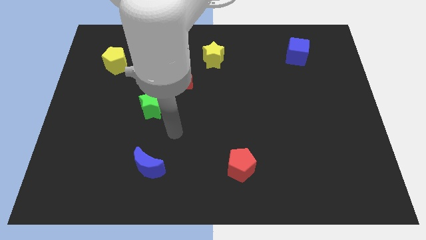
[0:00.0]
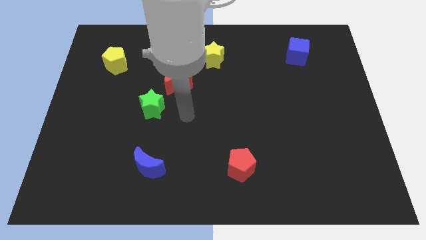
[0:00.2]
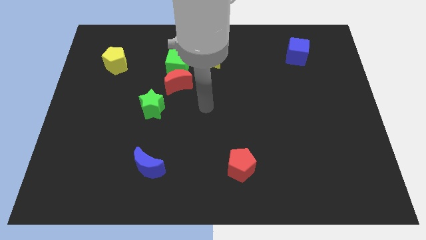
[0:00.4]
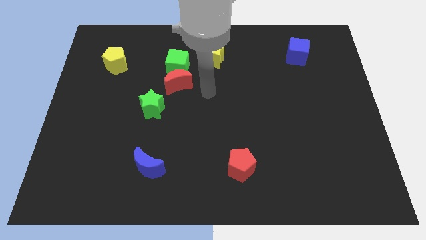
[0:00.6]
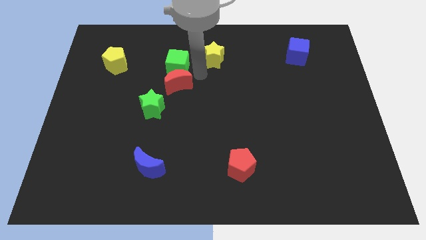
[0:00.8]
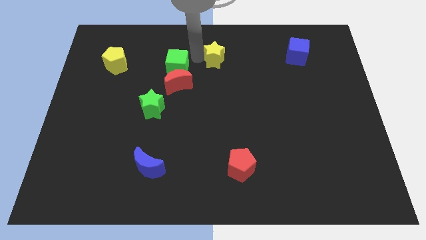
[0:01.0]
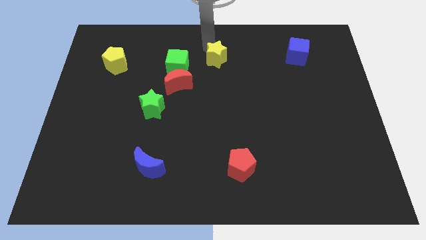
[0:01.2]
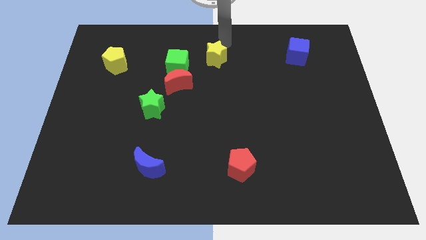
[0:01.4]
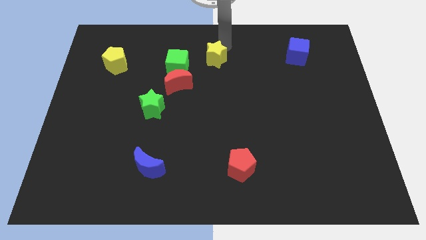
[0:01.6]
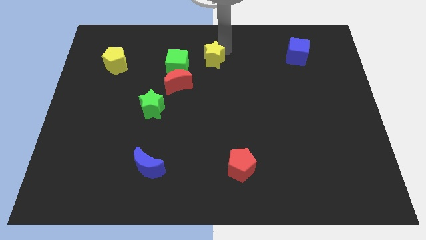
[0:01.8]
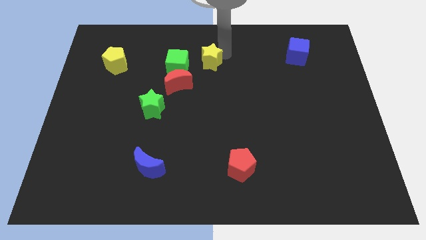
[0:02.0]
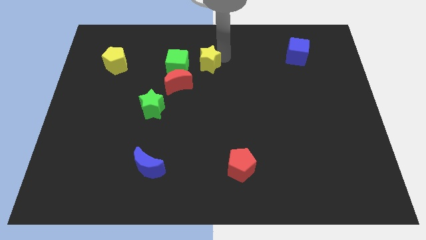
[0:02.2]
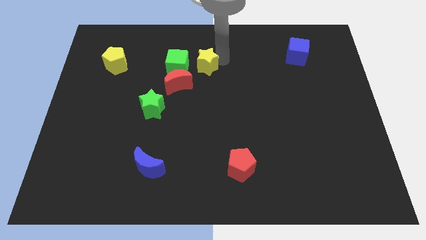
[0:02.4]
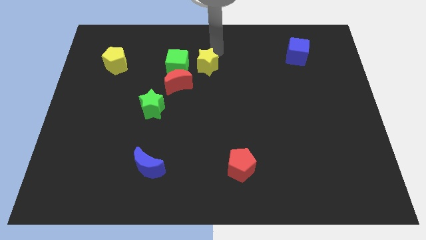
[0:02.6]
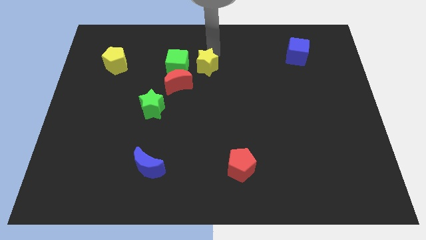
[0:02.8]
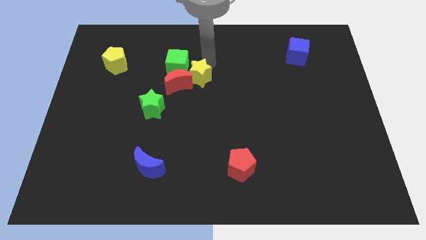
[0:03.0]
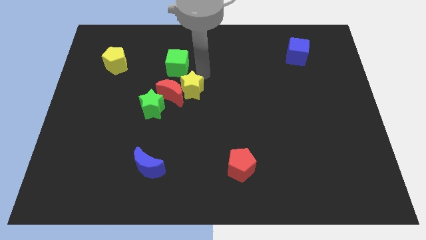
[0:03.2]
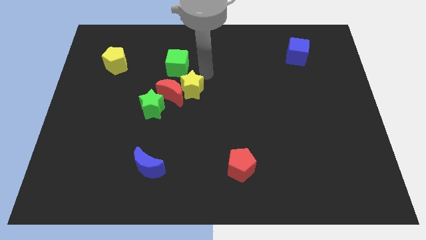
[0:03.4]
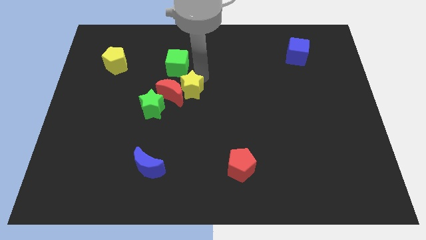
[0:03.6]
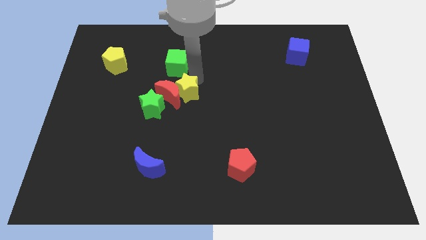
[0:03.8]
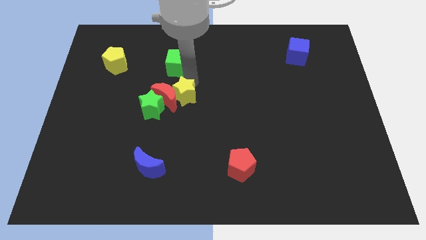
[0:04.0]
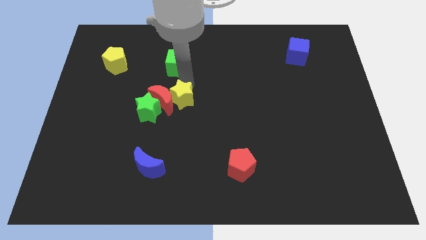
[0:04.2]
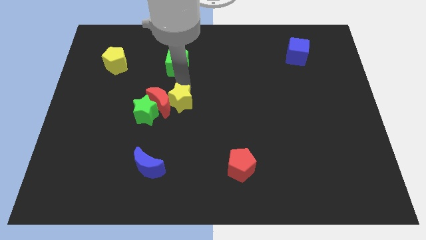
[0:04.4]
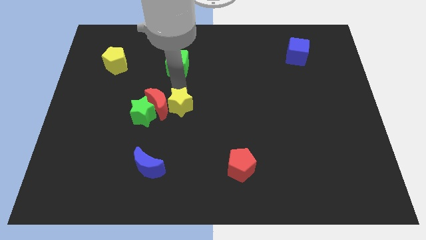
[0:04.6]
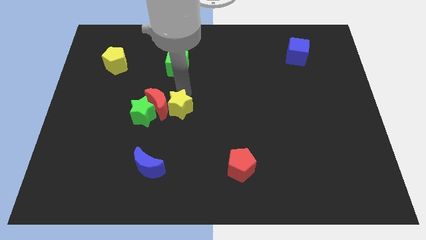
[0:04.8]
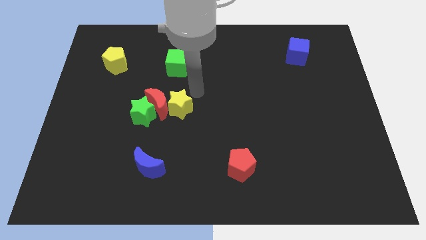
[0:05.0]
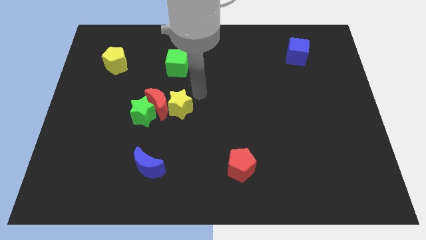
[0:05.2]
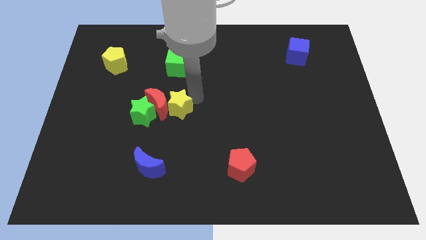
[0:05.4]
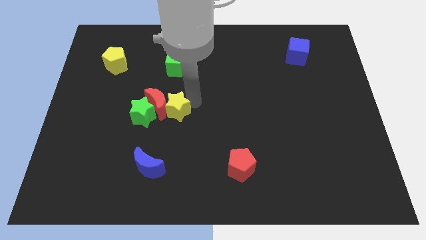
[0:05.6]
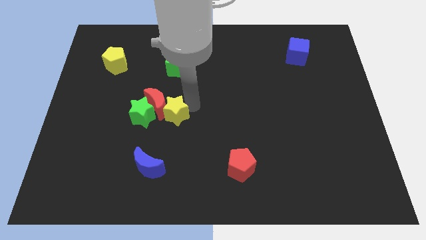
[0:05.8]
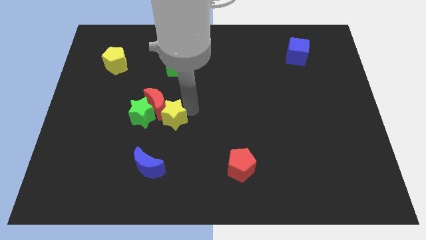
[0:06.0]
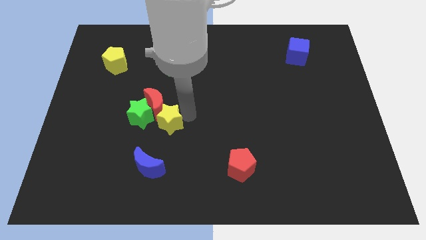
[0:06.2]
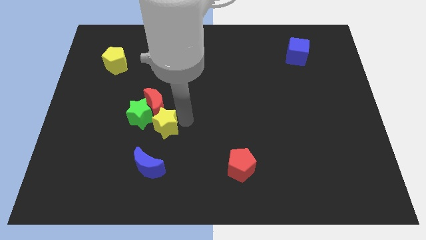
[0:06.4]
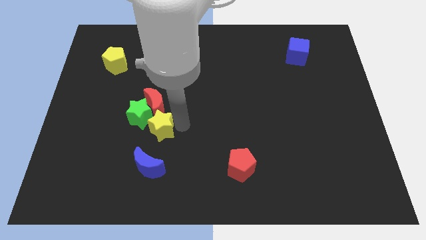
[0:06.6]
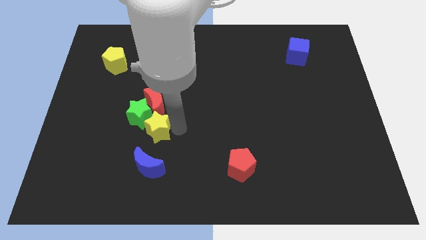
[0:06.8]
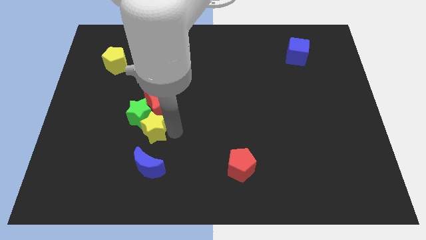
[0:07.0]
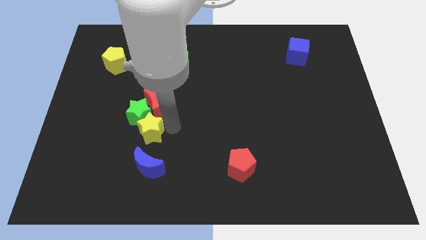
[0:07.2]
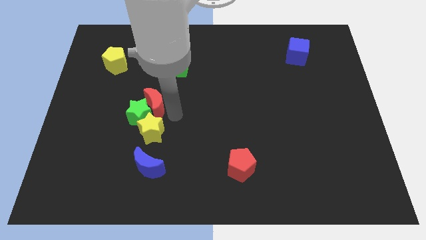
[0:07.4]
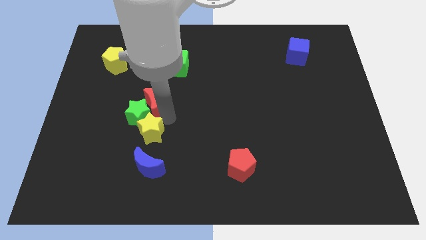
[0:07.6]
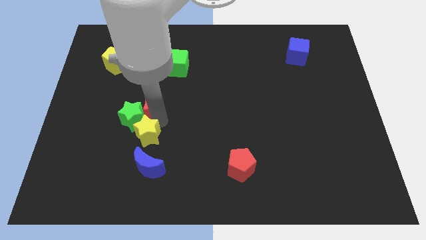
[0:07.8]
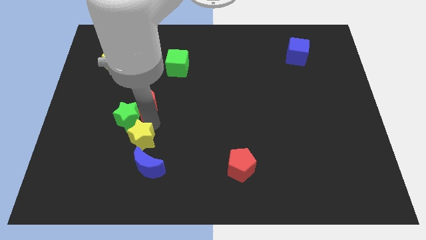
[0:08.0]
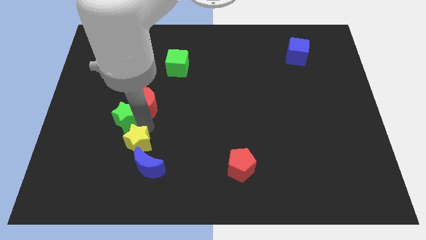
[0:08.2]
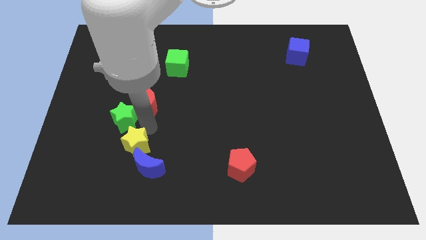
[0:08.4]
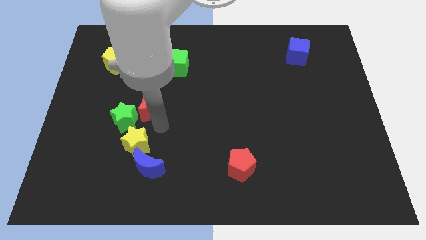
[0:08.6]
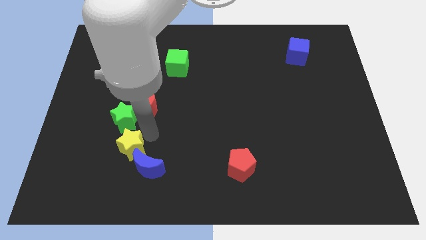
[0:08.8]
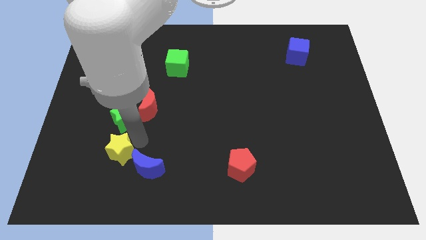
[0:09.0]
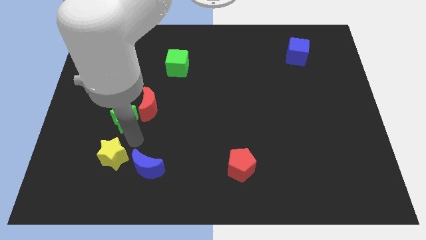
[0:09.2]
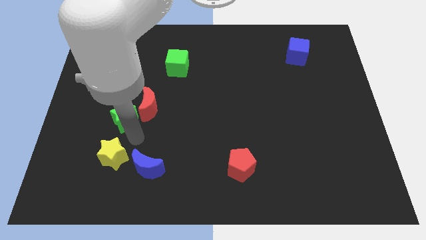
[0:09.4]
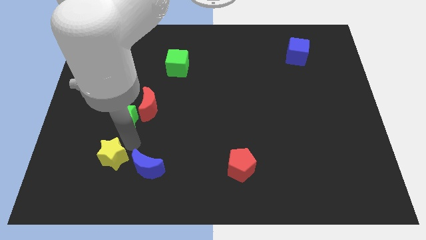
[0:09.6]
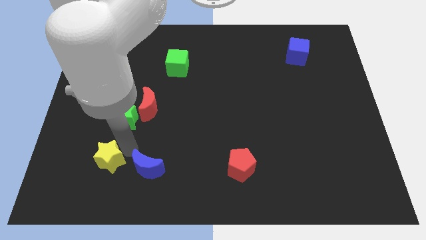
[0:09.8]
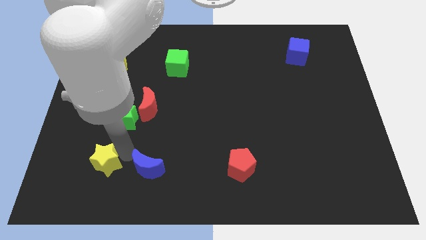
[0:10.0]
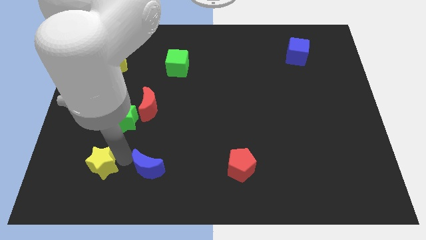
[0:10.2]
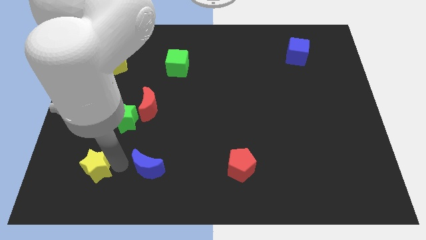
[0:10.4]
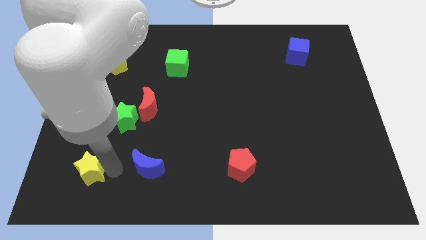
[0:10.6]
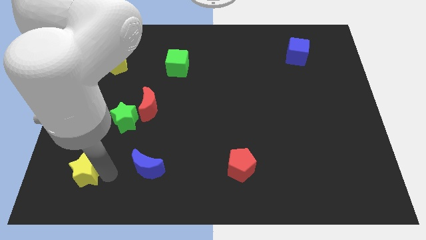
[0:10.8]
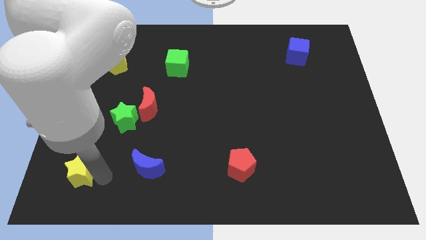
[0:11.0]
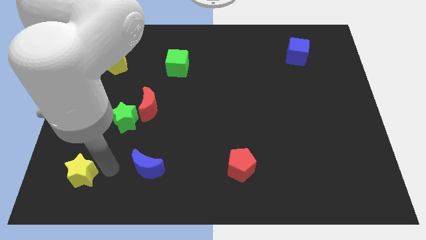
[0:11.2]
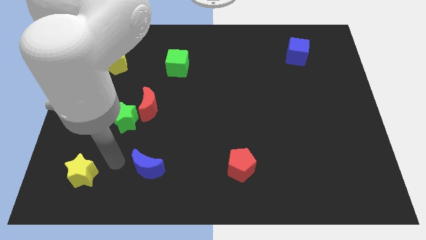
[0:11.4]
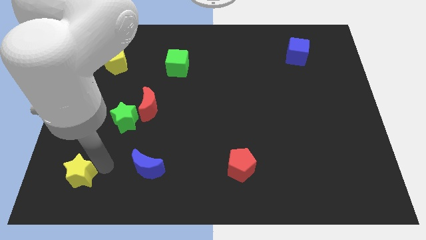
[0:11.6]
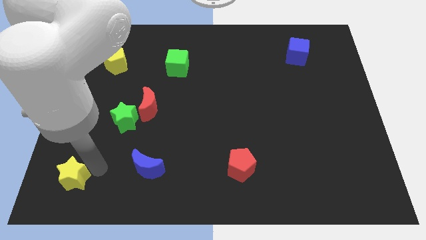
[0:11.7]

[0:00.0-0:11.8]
move the yellow star to the bottom left of the board
